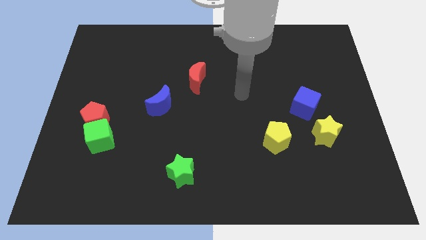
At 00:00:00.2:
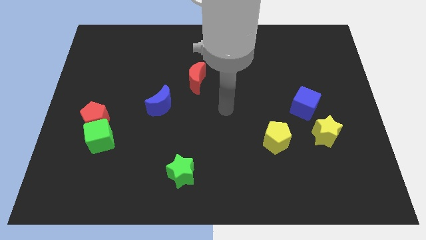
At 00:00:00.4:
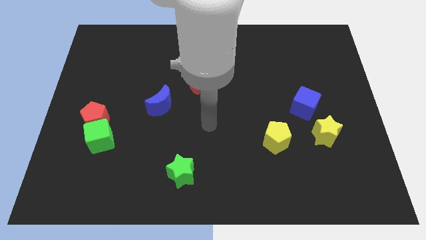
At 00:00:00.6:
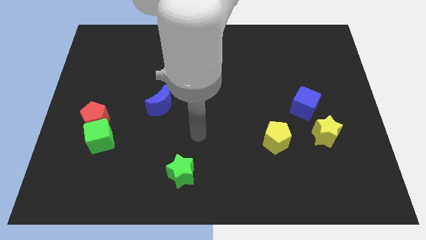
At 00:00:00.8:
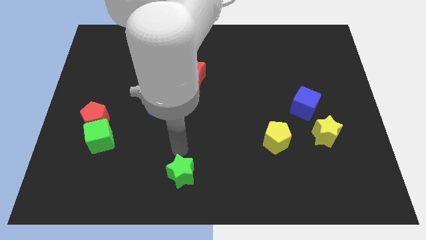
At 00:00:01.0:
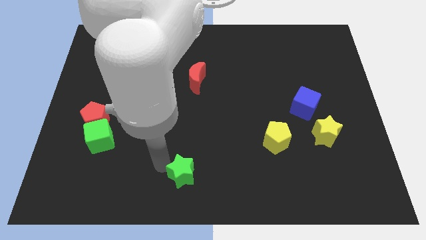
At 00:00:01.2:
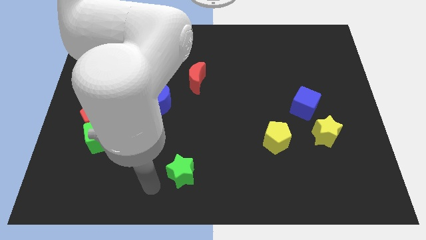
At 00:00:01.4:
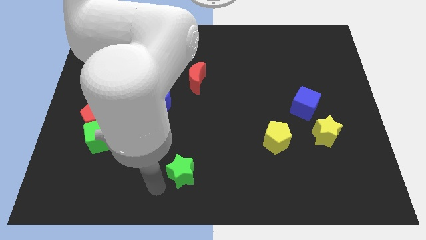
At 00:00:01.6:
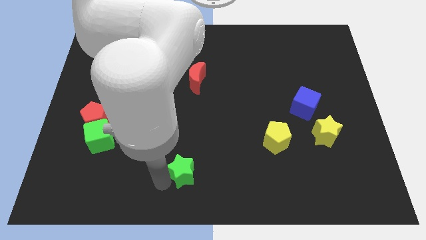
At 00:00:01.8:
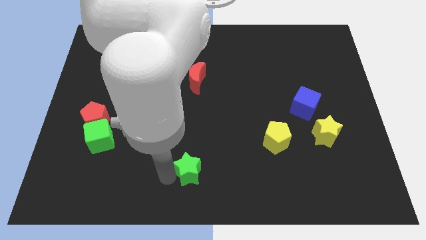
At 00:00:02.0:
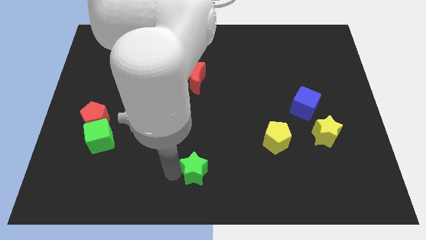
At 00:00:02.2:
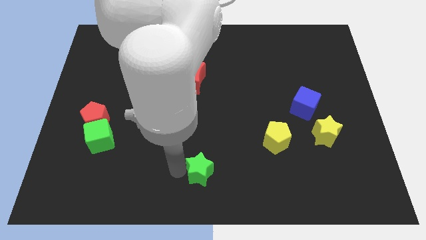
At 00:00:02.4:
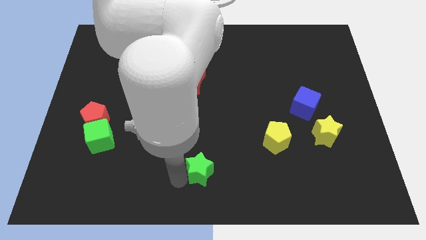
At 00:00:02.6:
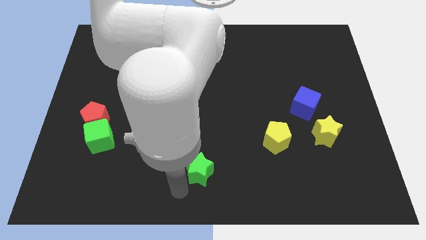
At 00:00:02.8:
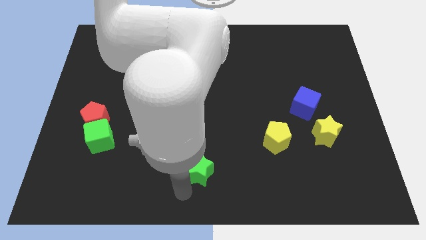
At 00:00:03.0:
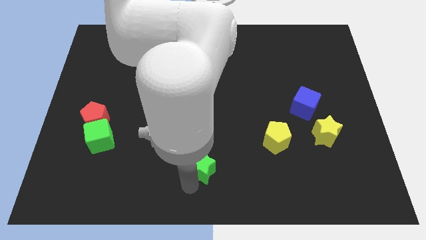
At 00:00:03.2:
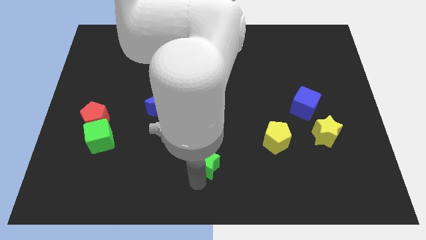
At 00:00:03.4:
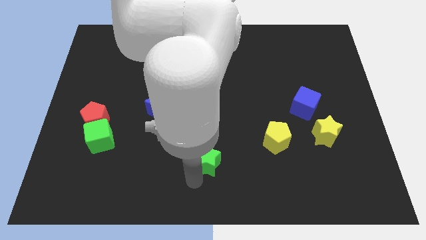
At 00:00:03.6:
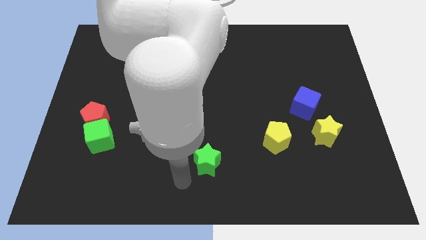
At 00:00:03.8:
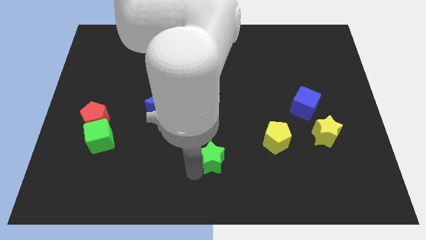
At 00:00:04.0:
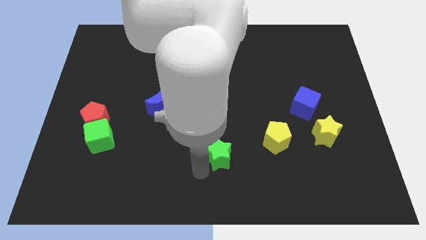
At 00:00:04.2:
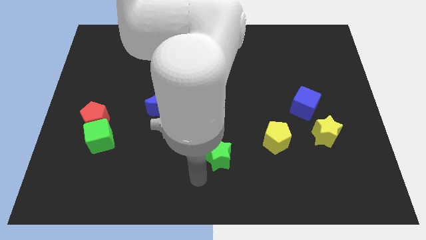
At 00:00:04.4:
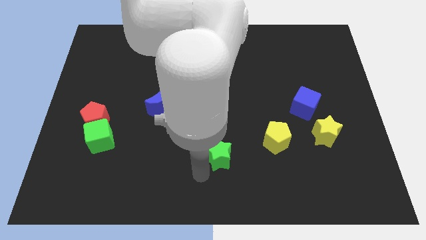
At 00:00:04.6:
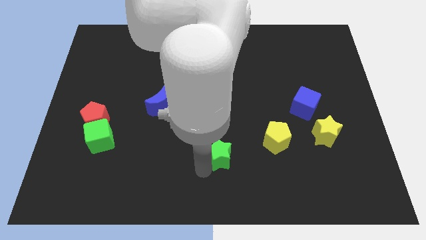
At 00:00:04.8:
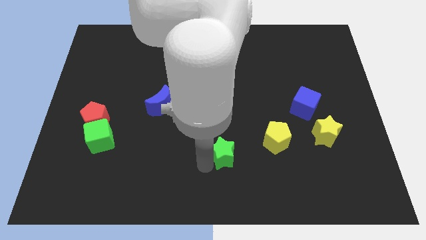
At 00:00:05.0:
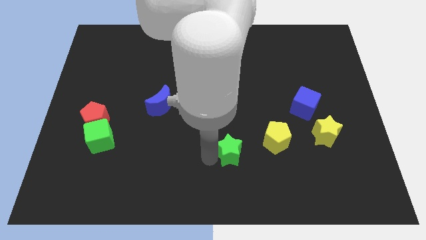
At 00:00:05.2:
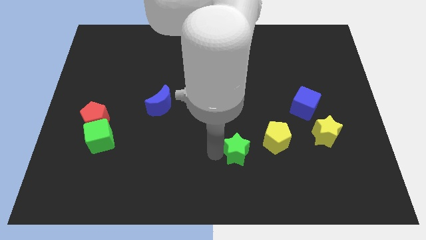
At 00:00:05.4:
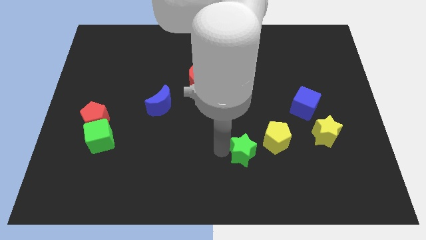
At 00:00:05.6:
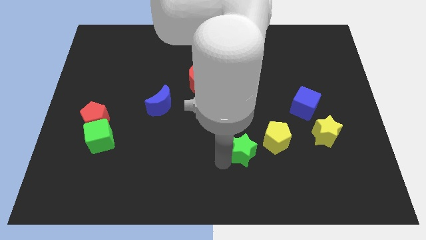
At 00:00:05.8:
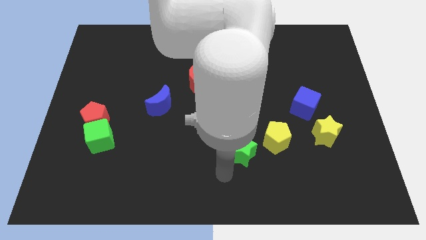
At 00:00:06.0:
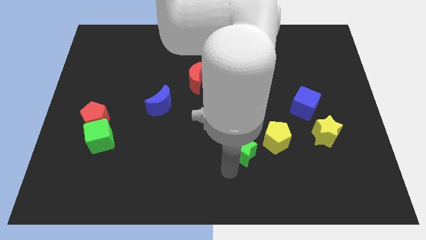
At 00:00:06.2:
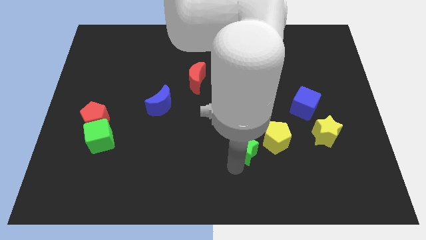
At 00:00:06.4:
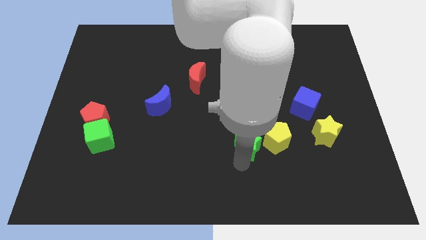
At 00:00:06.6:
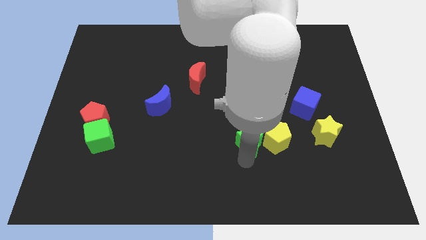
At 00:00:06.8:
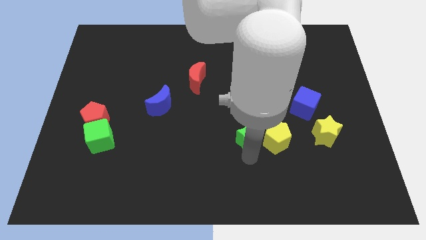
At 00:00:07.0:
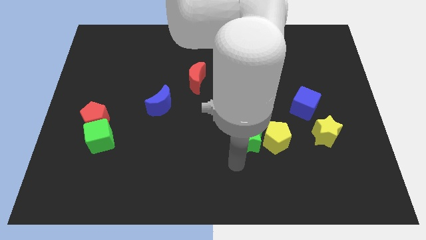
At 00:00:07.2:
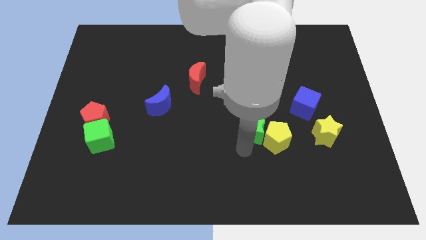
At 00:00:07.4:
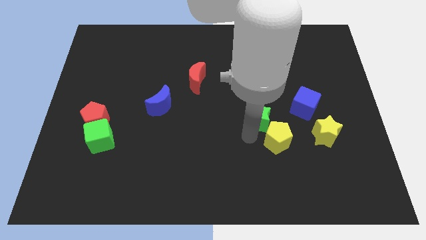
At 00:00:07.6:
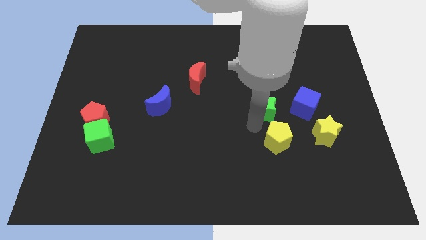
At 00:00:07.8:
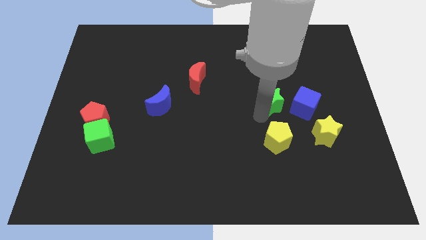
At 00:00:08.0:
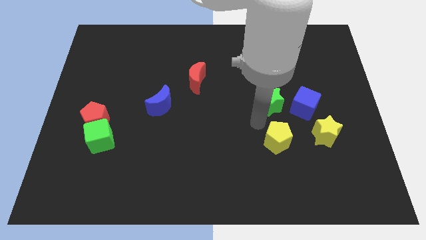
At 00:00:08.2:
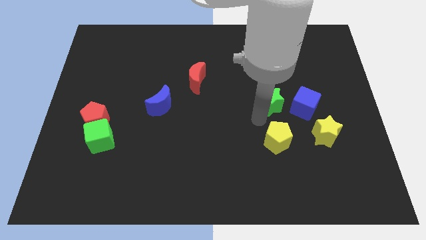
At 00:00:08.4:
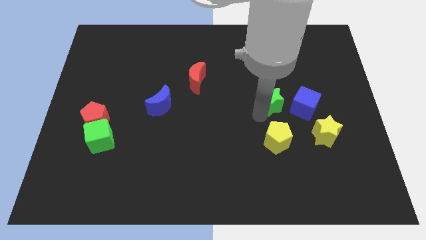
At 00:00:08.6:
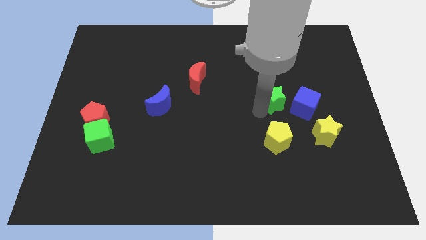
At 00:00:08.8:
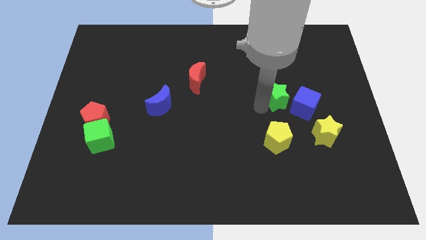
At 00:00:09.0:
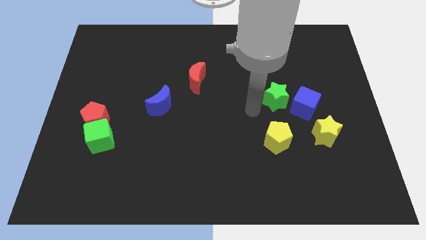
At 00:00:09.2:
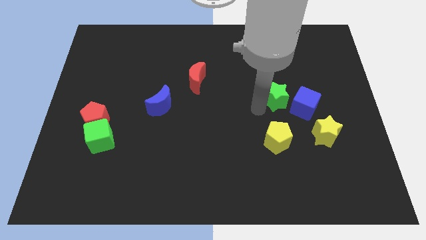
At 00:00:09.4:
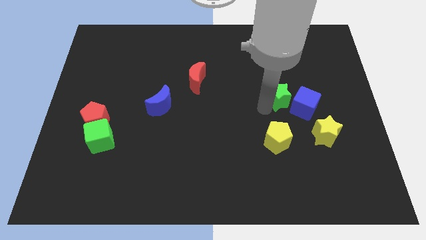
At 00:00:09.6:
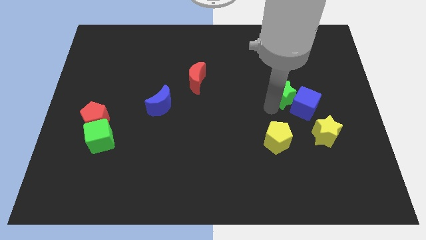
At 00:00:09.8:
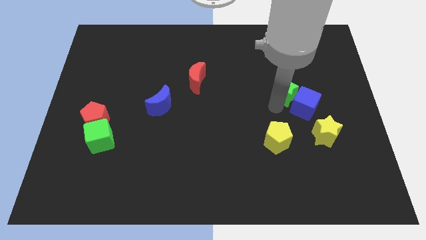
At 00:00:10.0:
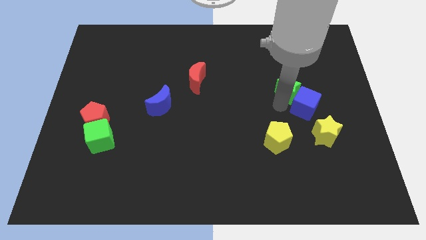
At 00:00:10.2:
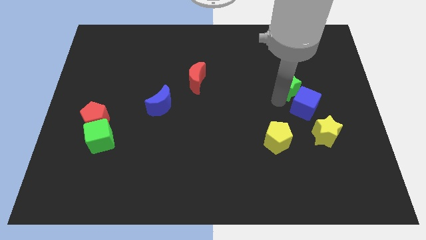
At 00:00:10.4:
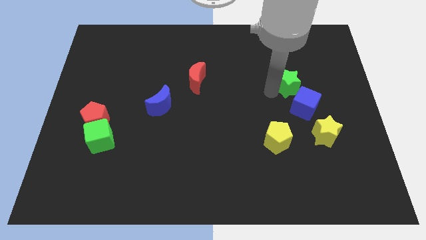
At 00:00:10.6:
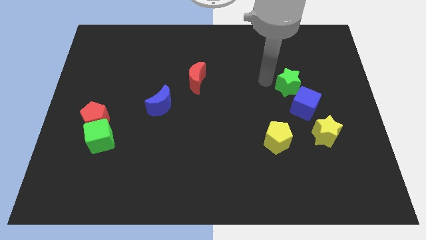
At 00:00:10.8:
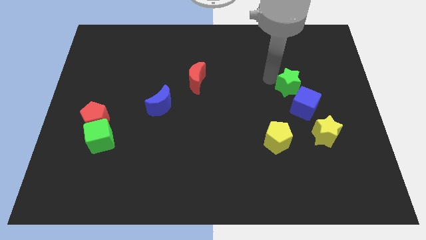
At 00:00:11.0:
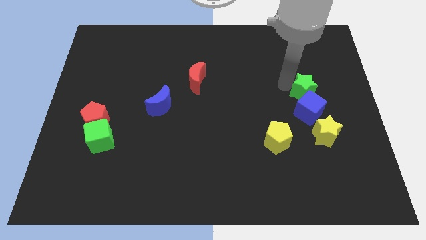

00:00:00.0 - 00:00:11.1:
push the green star to the top of the yellow star

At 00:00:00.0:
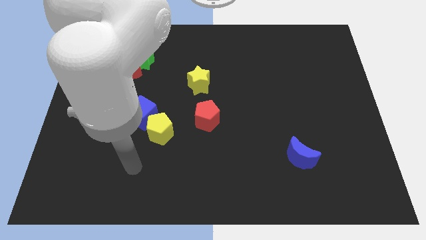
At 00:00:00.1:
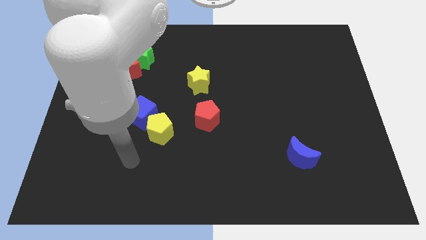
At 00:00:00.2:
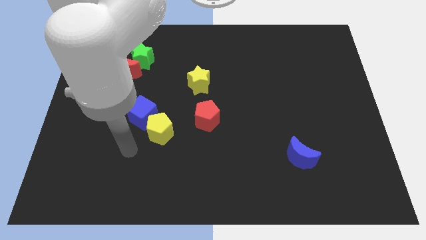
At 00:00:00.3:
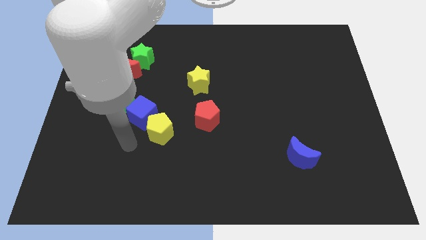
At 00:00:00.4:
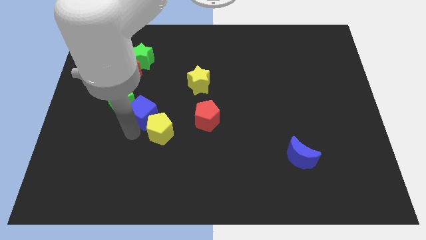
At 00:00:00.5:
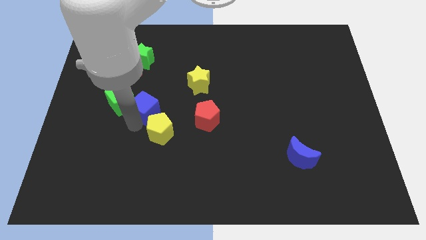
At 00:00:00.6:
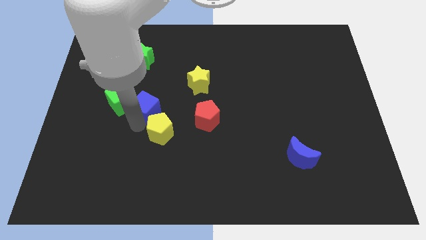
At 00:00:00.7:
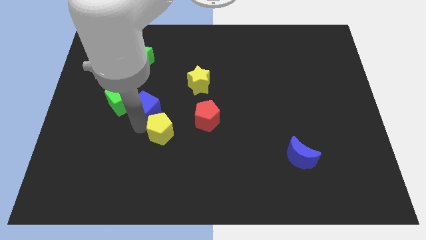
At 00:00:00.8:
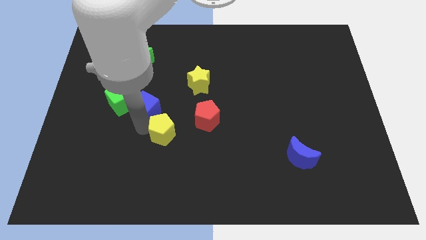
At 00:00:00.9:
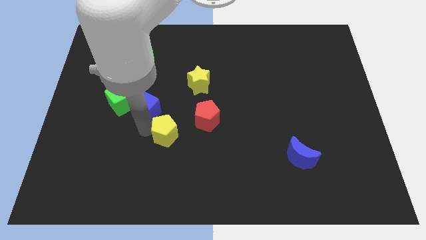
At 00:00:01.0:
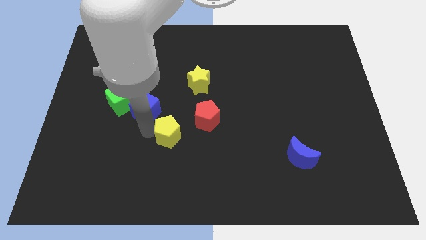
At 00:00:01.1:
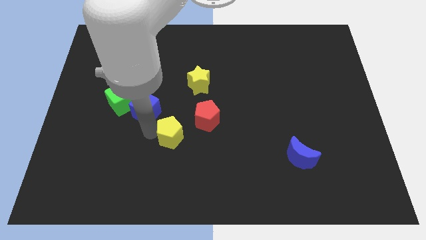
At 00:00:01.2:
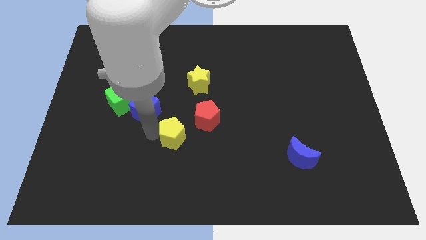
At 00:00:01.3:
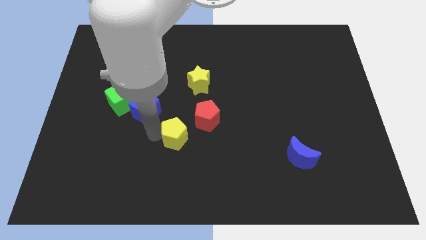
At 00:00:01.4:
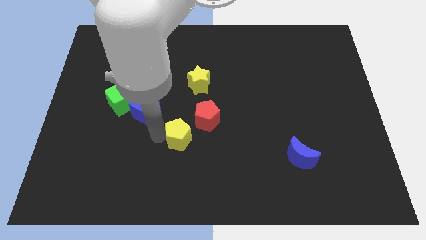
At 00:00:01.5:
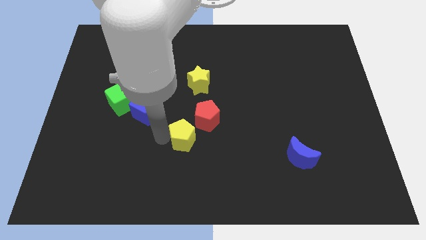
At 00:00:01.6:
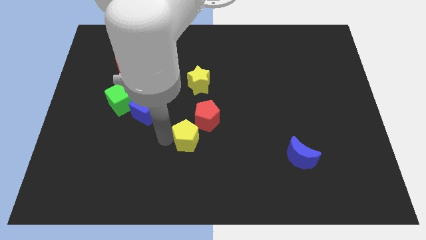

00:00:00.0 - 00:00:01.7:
slide the yellow pentagon to the bottom of the red pentagon
